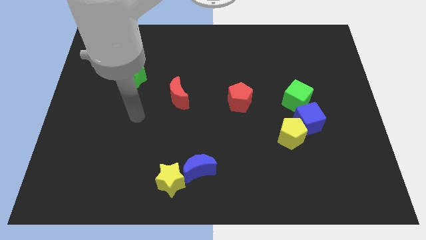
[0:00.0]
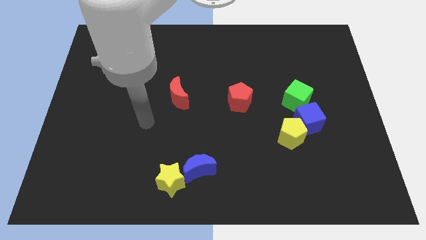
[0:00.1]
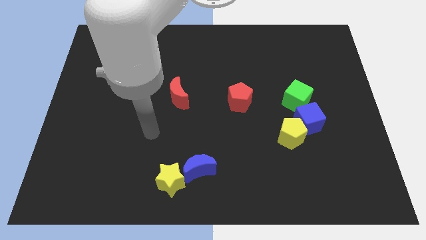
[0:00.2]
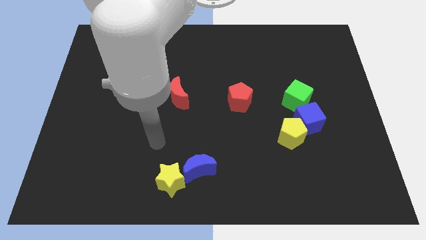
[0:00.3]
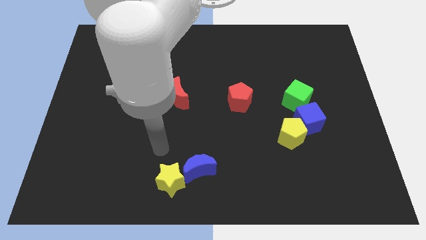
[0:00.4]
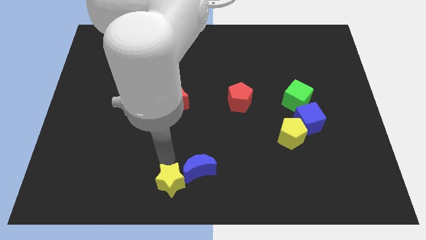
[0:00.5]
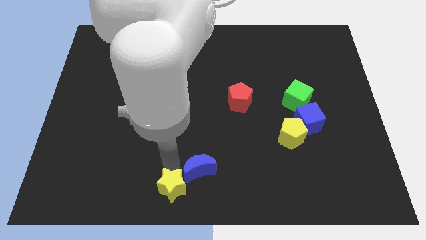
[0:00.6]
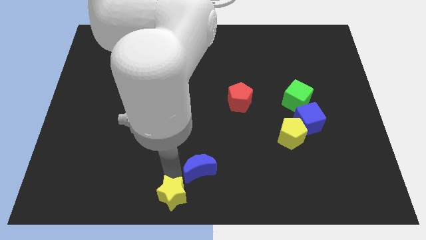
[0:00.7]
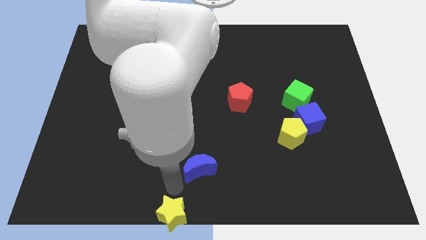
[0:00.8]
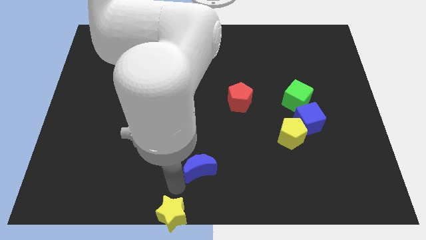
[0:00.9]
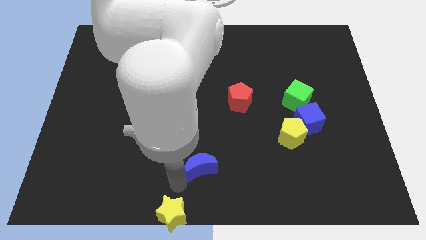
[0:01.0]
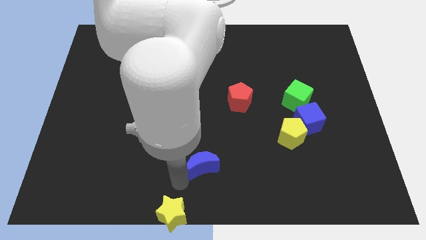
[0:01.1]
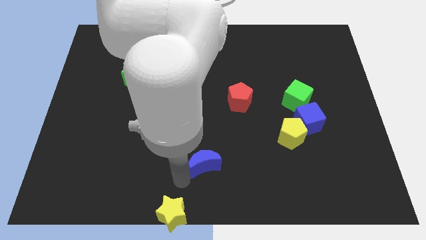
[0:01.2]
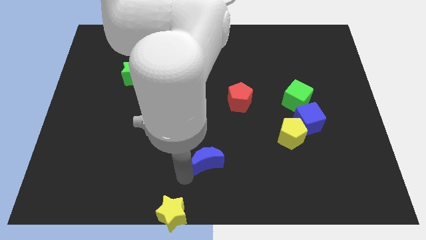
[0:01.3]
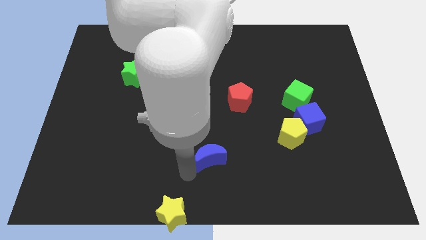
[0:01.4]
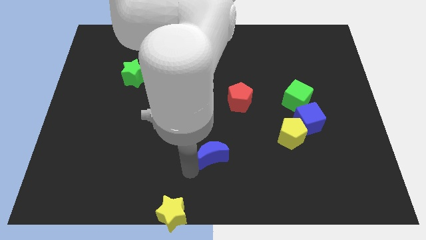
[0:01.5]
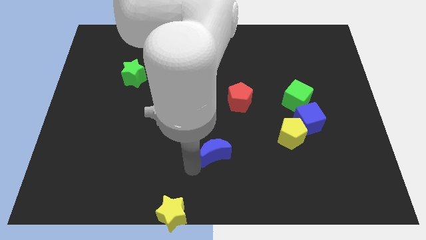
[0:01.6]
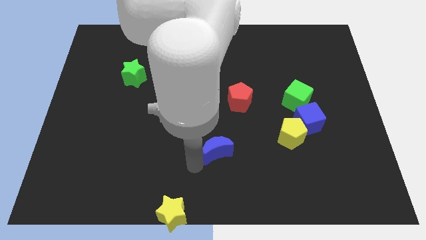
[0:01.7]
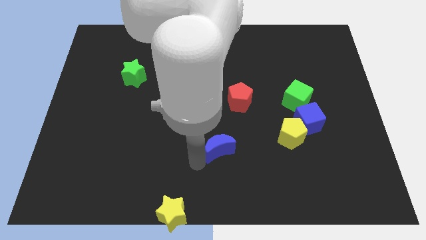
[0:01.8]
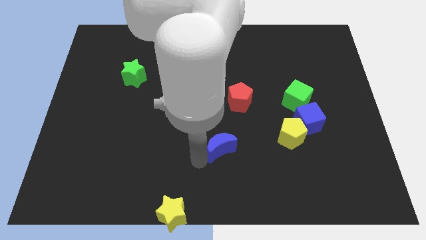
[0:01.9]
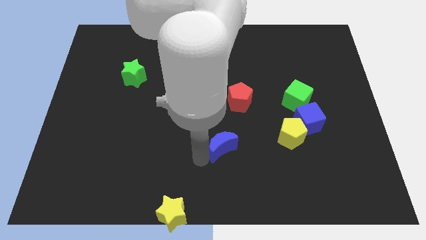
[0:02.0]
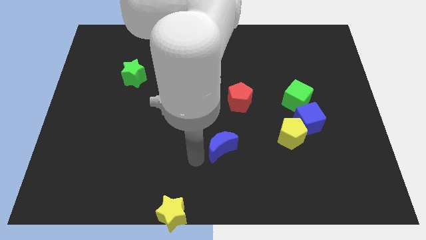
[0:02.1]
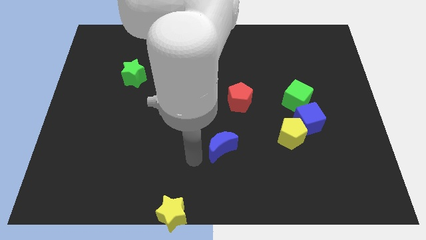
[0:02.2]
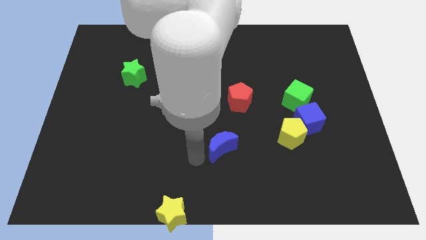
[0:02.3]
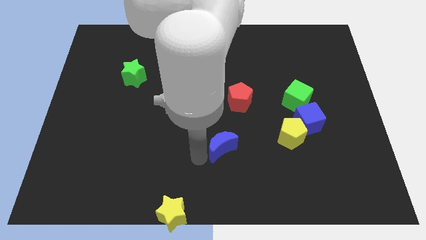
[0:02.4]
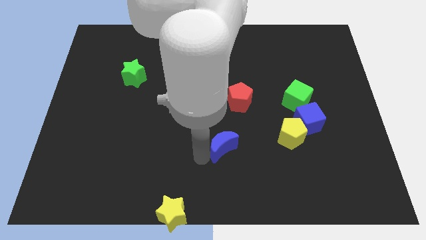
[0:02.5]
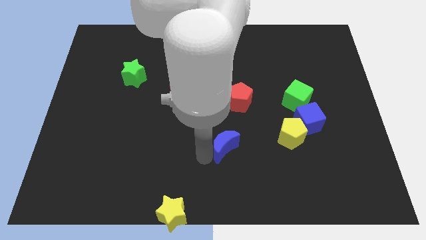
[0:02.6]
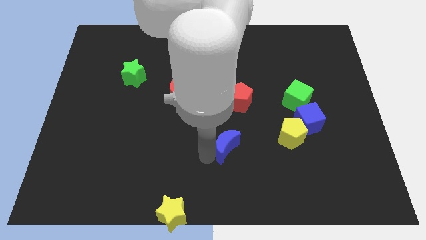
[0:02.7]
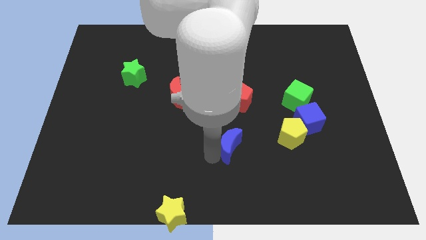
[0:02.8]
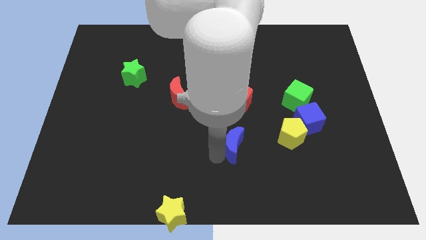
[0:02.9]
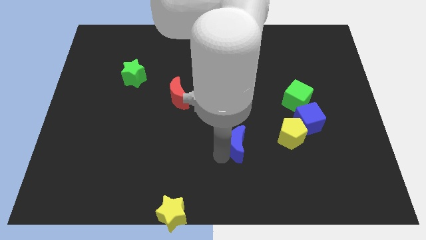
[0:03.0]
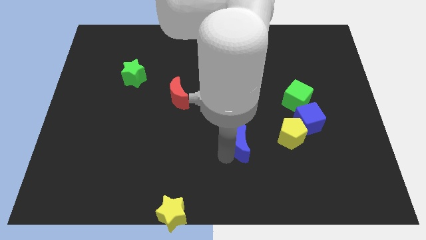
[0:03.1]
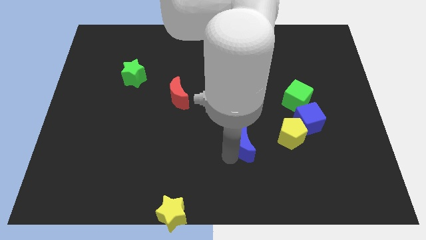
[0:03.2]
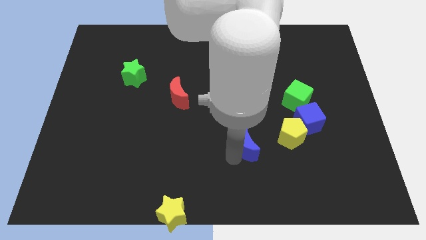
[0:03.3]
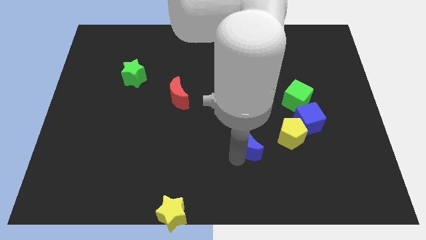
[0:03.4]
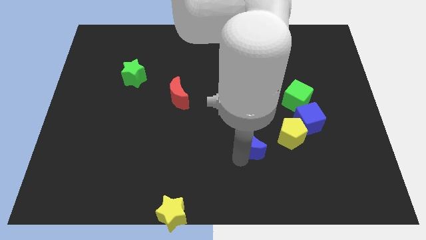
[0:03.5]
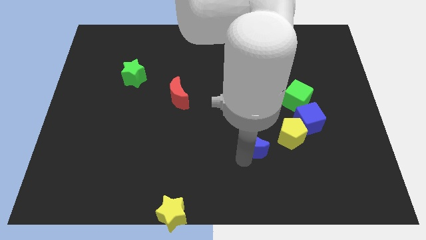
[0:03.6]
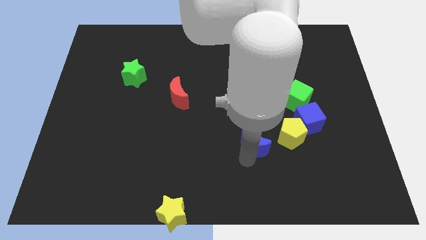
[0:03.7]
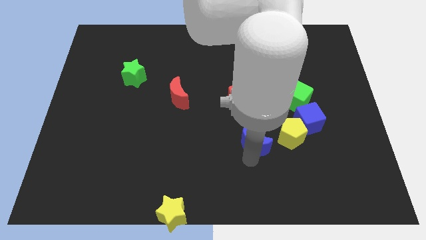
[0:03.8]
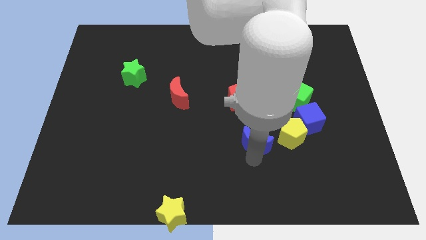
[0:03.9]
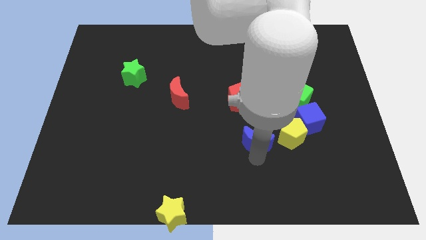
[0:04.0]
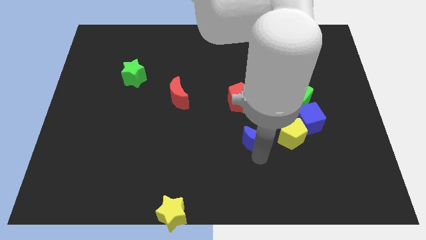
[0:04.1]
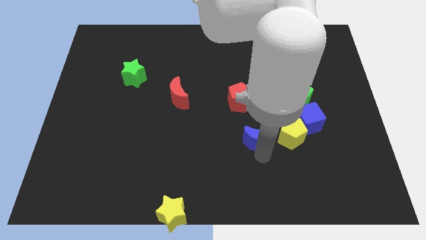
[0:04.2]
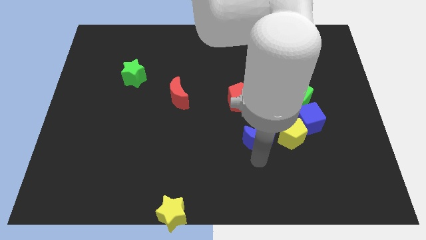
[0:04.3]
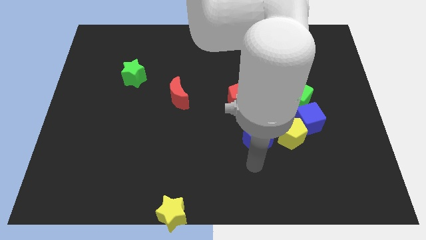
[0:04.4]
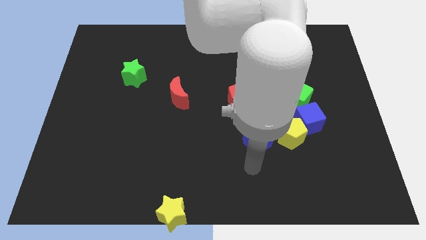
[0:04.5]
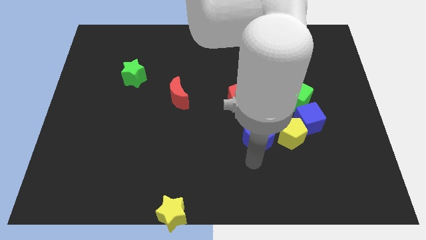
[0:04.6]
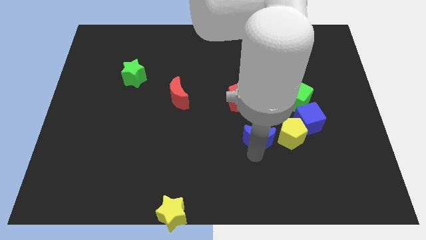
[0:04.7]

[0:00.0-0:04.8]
put the blue moon to the left side of the blue cube

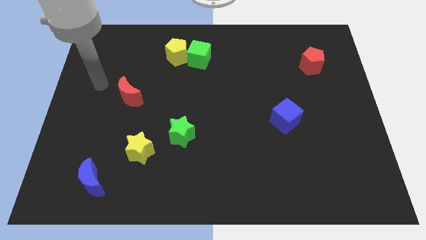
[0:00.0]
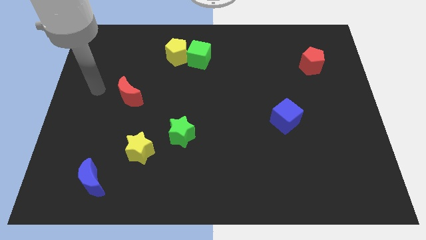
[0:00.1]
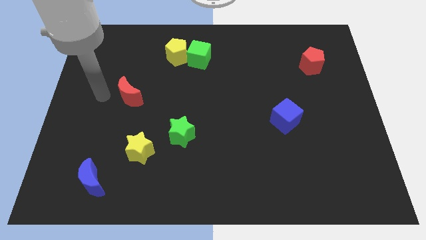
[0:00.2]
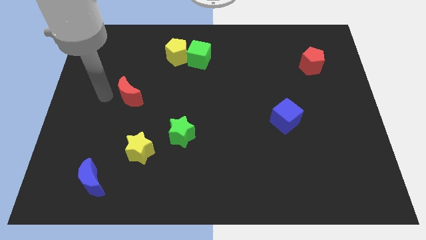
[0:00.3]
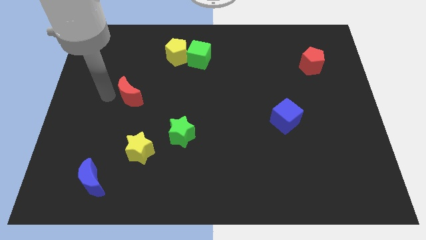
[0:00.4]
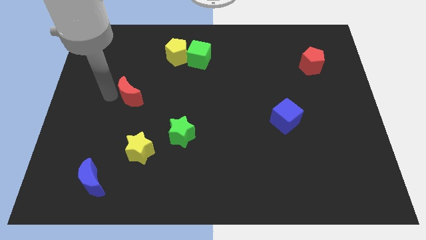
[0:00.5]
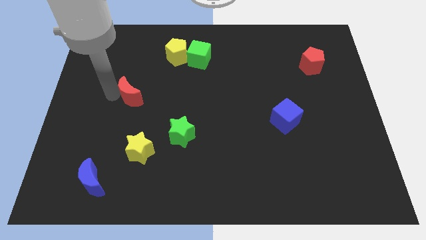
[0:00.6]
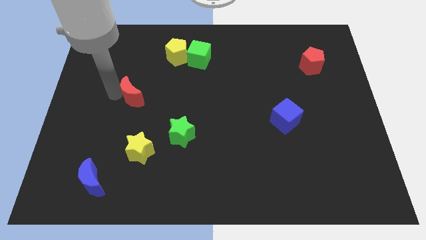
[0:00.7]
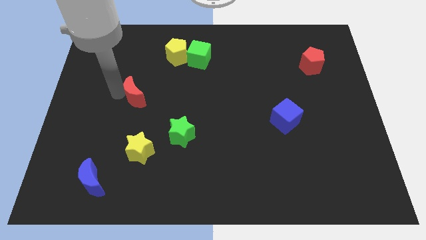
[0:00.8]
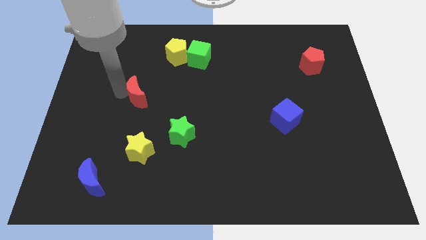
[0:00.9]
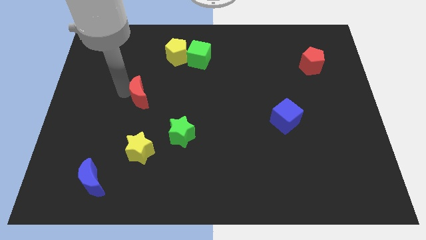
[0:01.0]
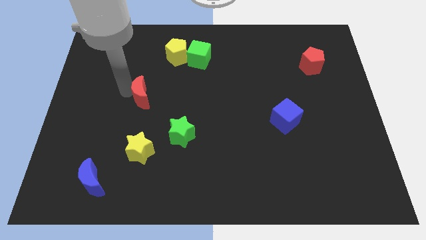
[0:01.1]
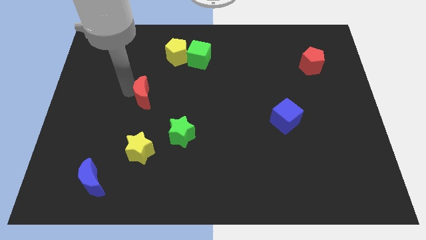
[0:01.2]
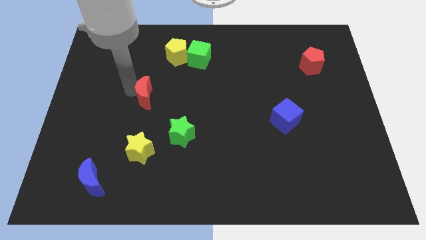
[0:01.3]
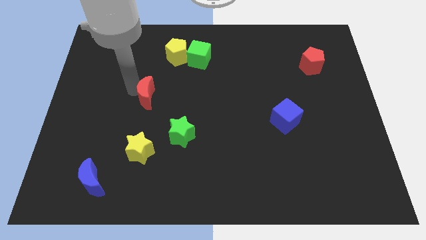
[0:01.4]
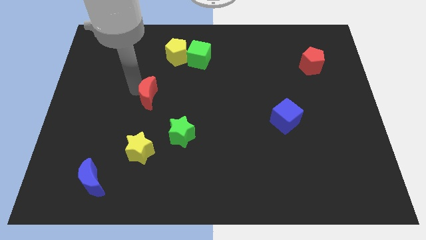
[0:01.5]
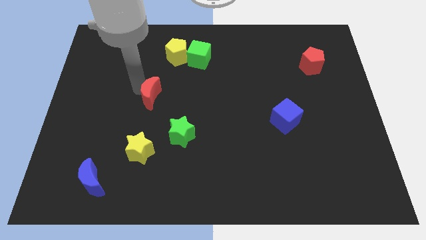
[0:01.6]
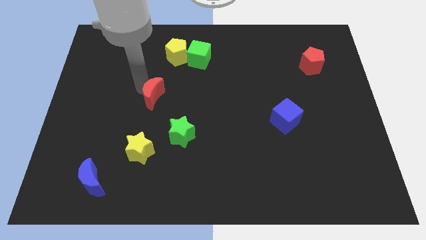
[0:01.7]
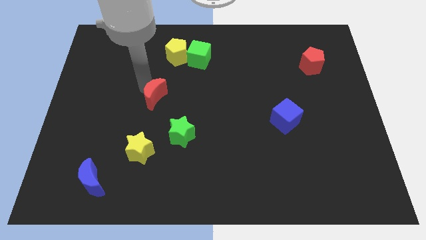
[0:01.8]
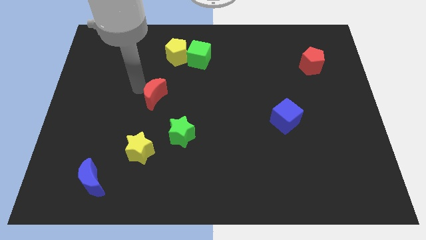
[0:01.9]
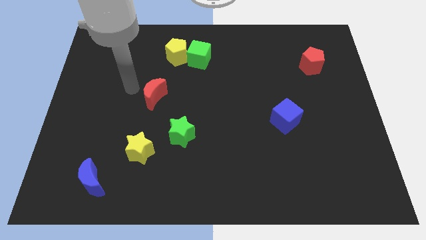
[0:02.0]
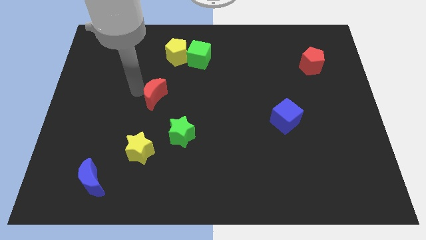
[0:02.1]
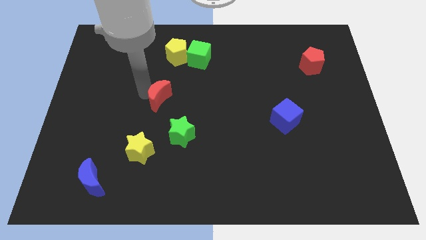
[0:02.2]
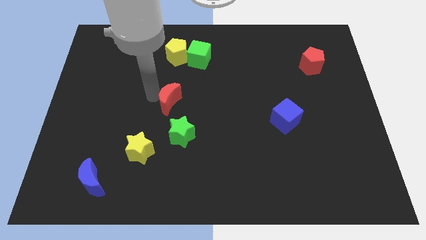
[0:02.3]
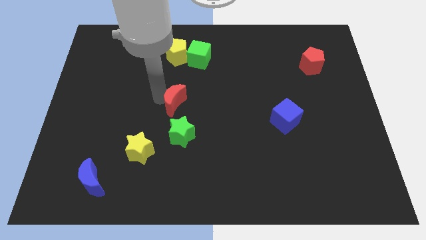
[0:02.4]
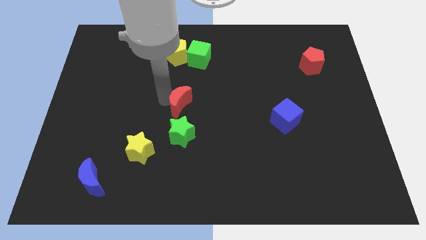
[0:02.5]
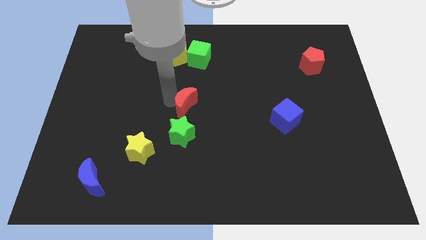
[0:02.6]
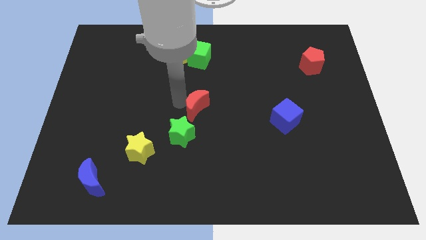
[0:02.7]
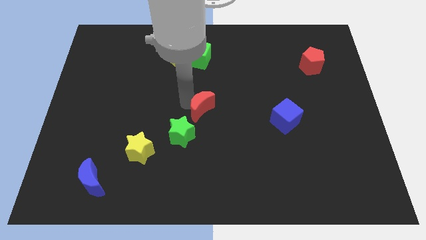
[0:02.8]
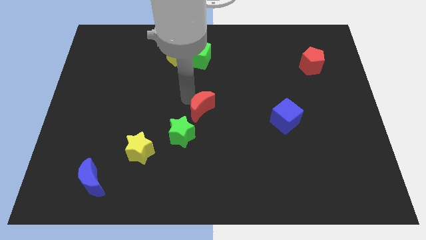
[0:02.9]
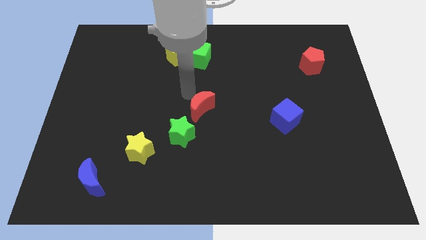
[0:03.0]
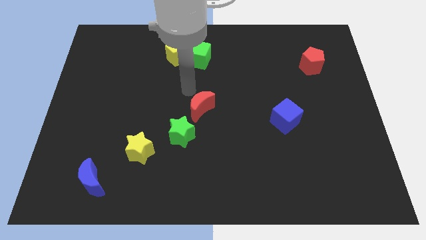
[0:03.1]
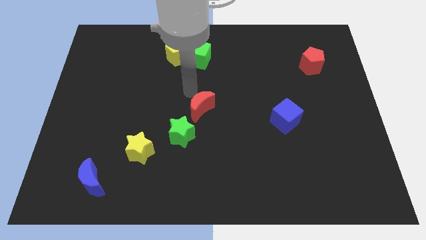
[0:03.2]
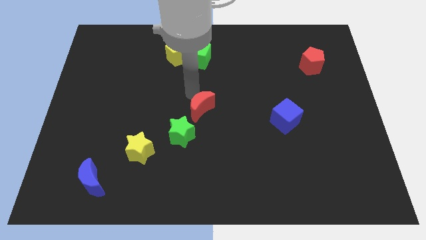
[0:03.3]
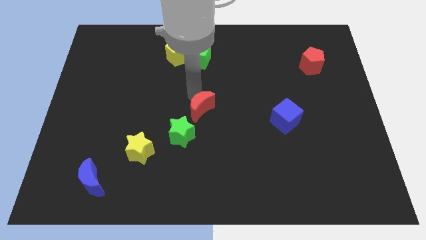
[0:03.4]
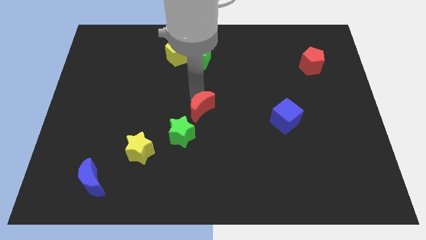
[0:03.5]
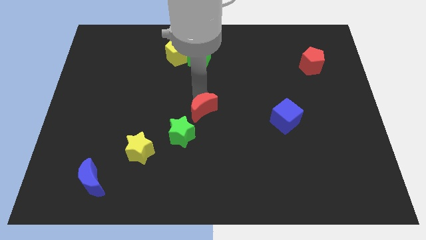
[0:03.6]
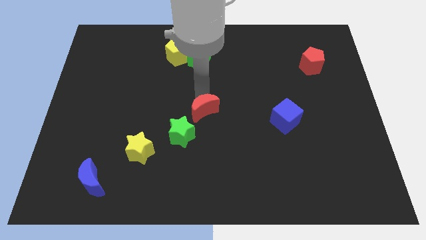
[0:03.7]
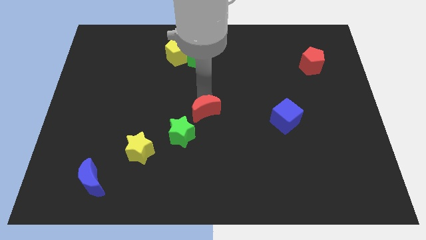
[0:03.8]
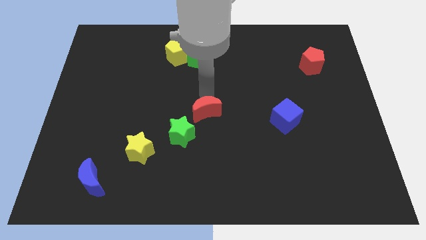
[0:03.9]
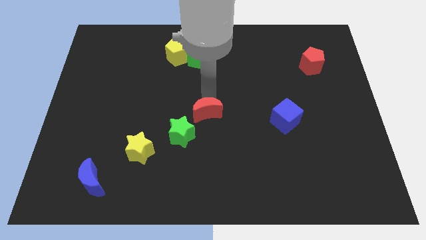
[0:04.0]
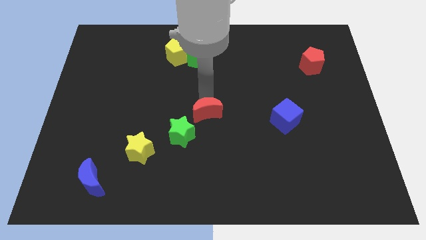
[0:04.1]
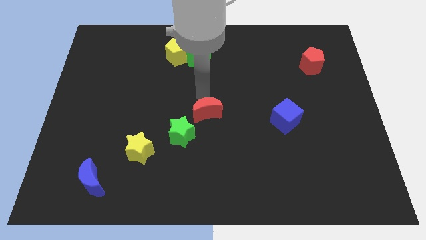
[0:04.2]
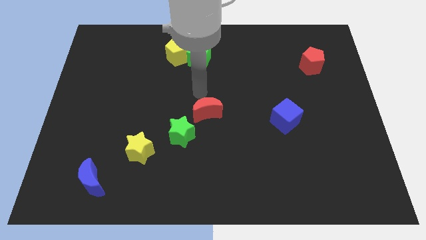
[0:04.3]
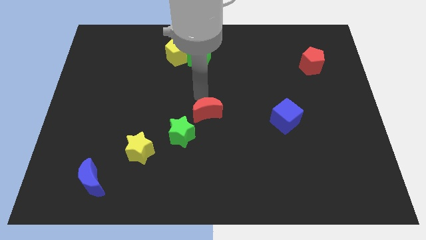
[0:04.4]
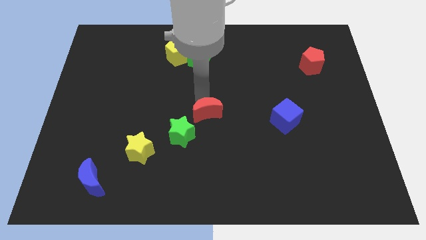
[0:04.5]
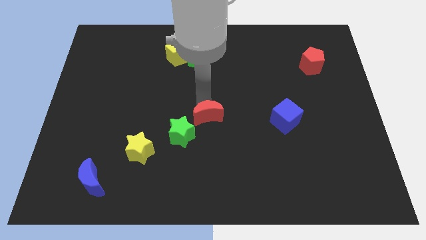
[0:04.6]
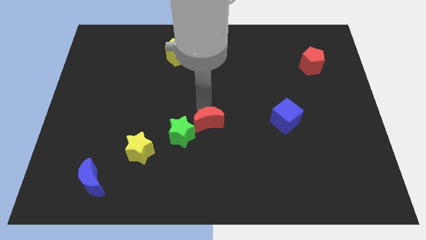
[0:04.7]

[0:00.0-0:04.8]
put the red moon just right of the green star
